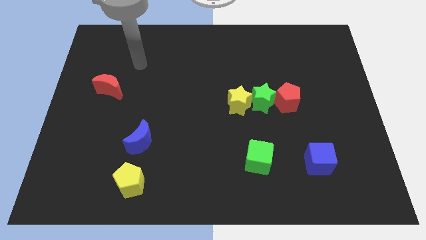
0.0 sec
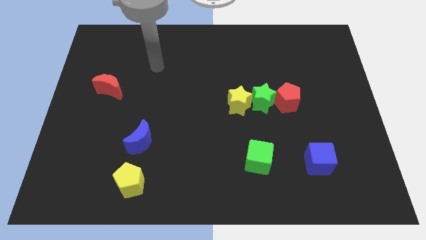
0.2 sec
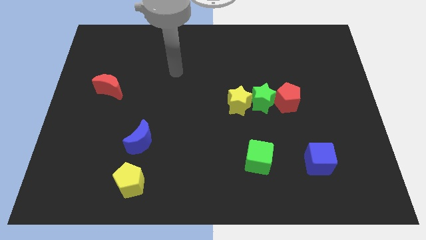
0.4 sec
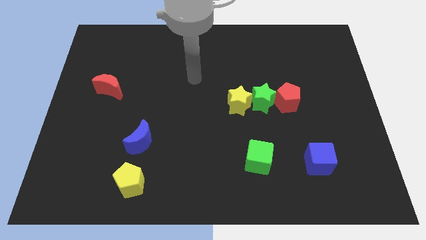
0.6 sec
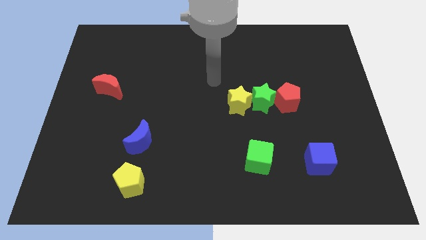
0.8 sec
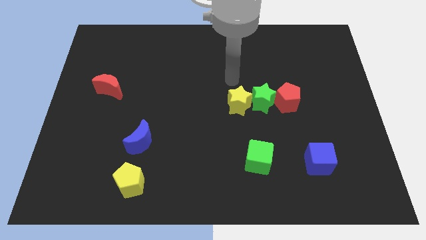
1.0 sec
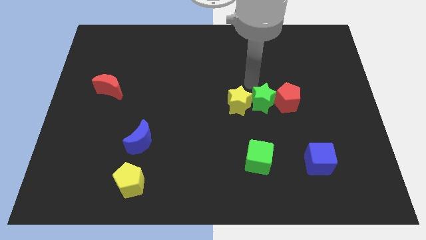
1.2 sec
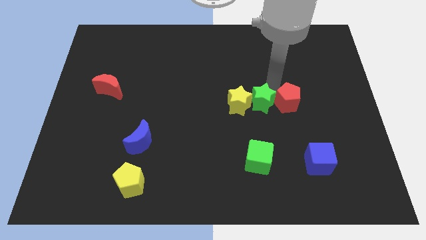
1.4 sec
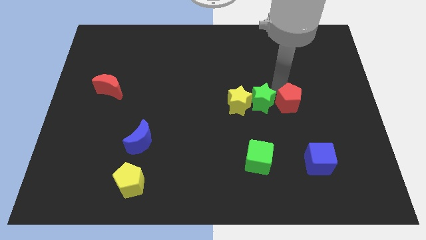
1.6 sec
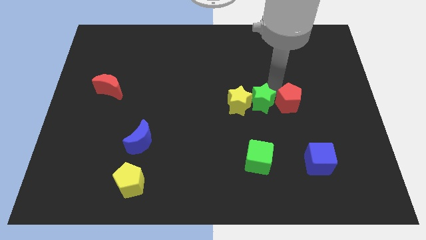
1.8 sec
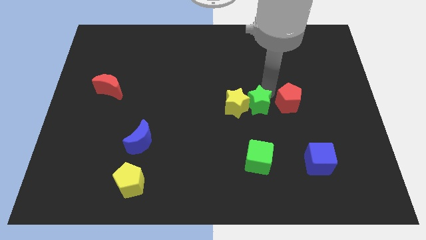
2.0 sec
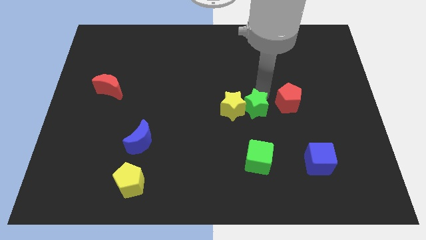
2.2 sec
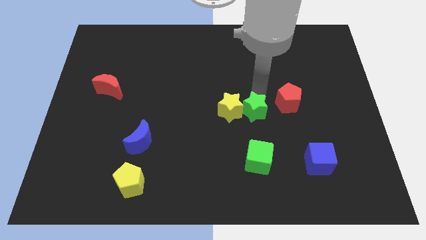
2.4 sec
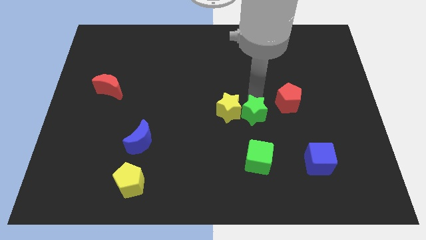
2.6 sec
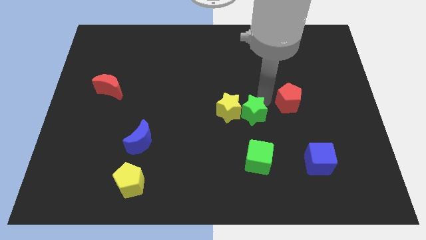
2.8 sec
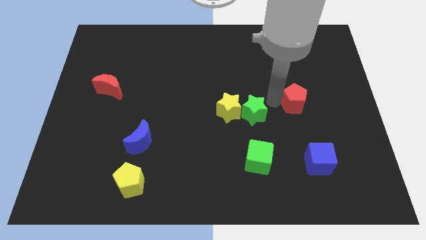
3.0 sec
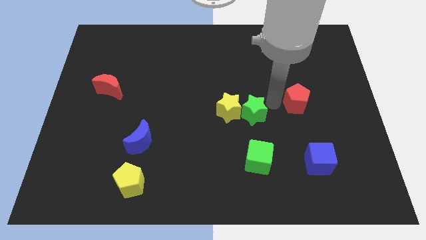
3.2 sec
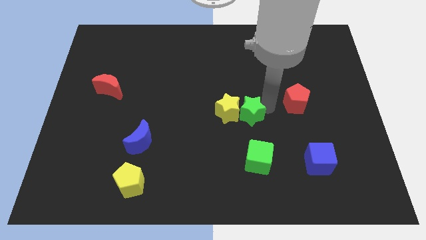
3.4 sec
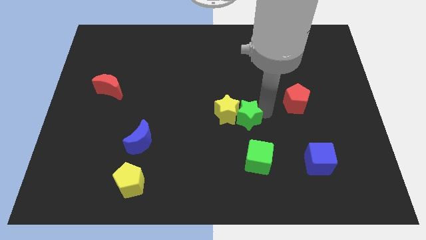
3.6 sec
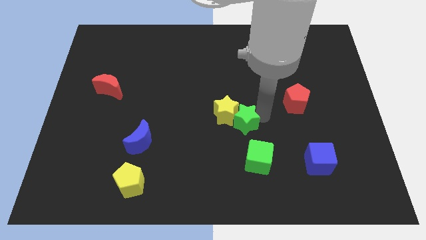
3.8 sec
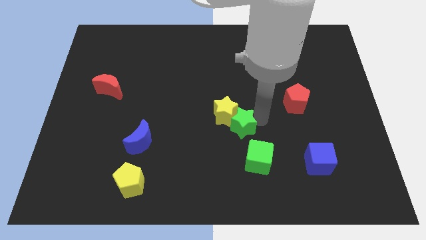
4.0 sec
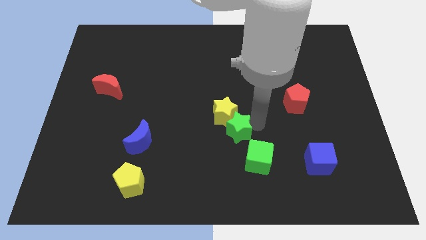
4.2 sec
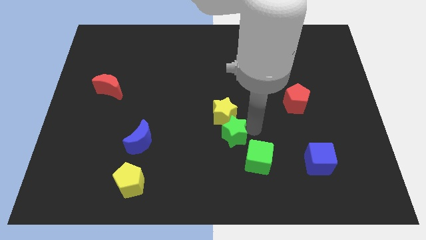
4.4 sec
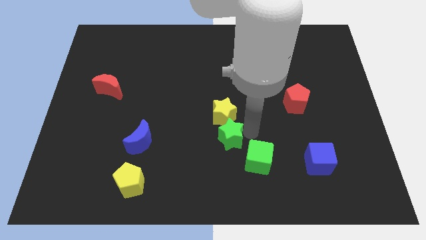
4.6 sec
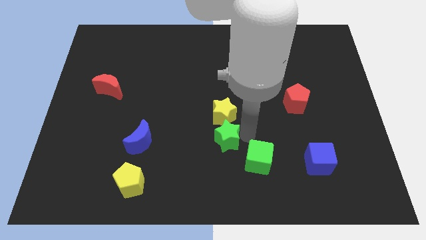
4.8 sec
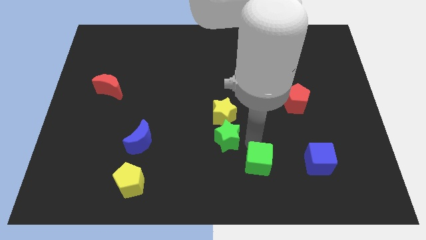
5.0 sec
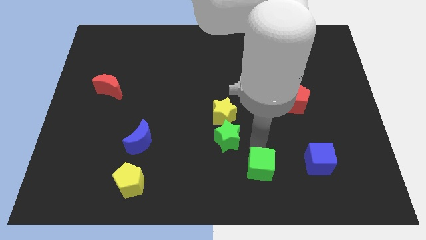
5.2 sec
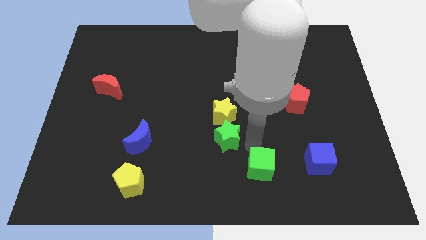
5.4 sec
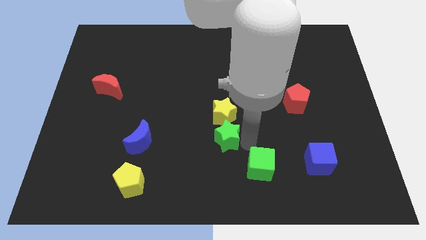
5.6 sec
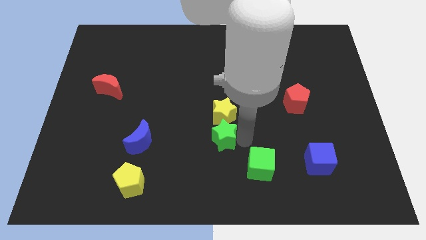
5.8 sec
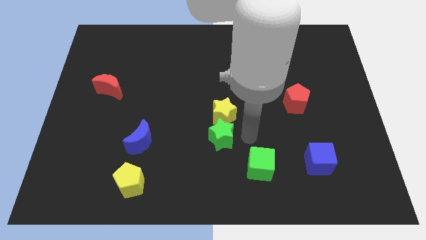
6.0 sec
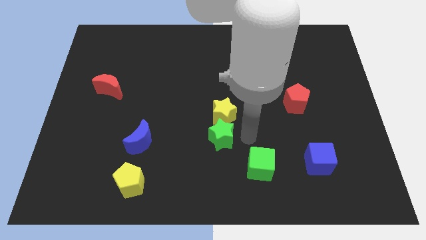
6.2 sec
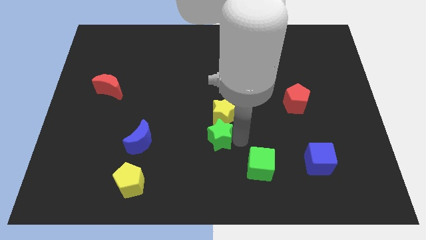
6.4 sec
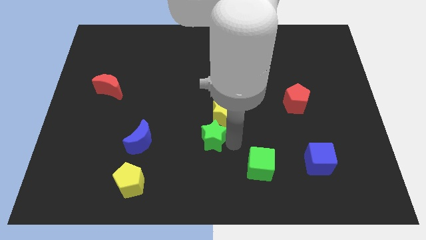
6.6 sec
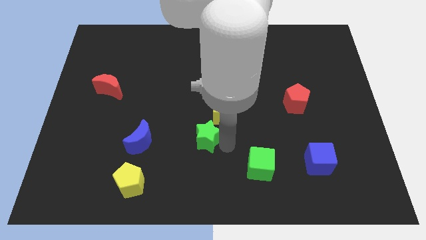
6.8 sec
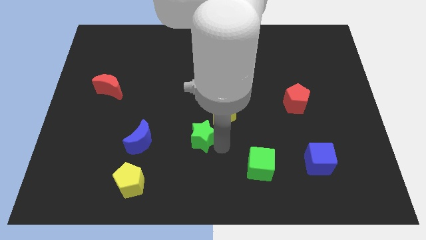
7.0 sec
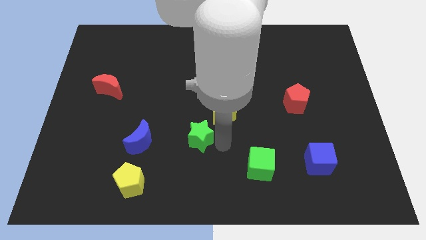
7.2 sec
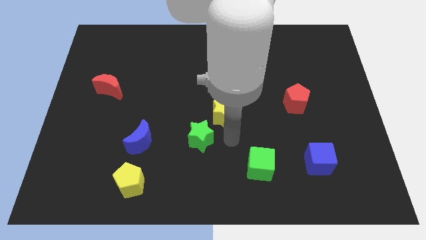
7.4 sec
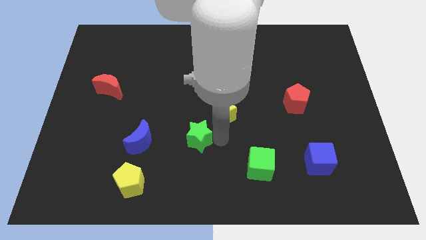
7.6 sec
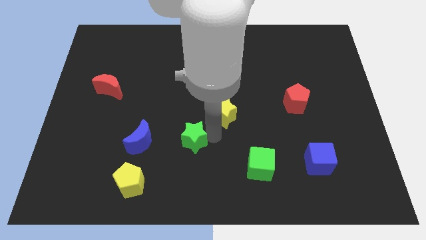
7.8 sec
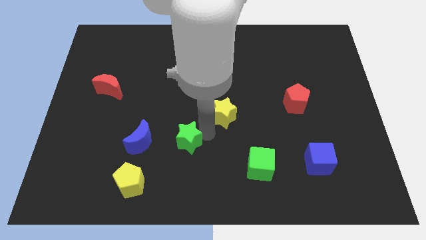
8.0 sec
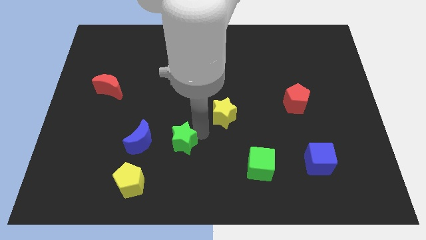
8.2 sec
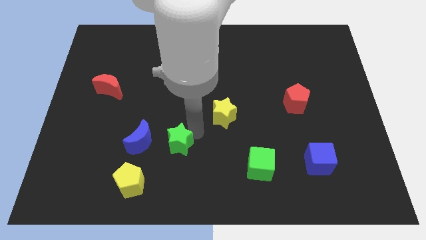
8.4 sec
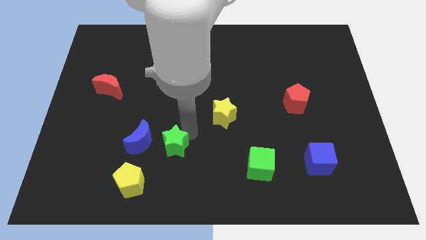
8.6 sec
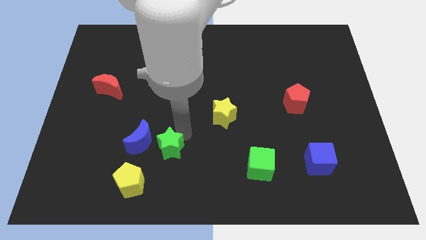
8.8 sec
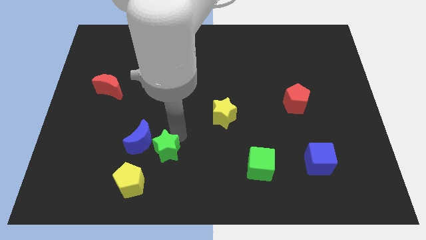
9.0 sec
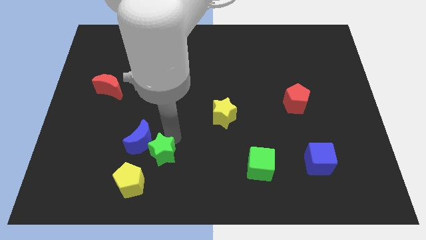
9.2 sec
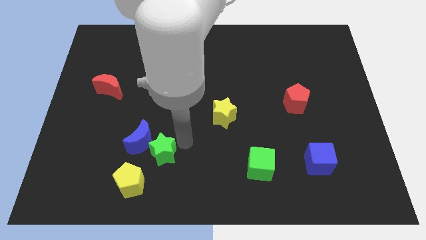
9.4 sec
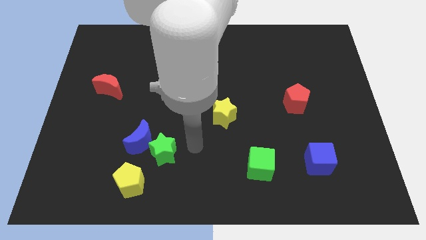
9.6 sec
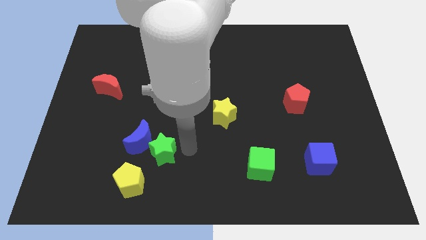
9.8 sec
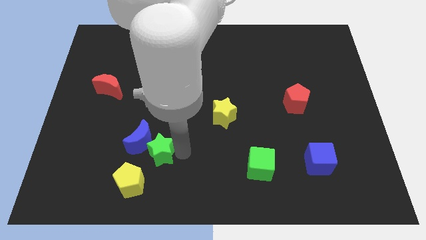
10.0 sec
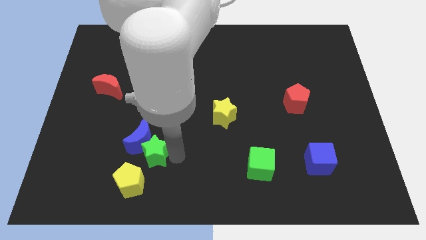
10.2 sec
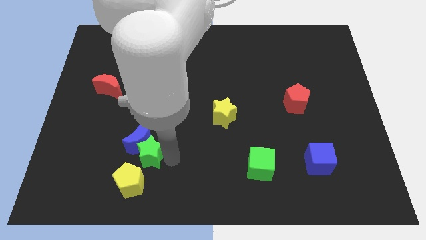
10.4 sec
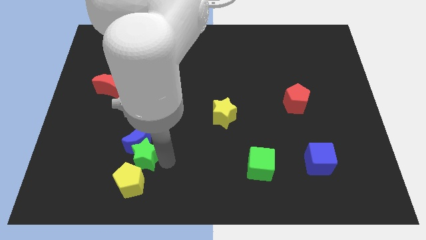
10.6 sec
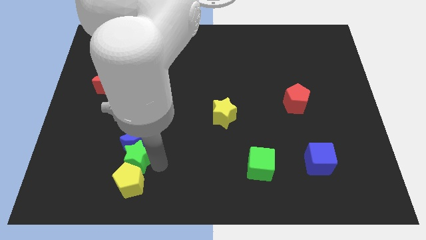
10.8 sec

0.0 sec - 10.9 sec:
slide the green star to the top left of the yellow pentagon
